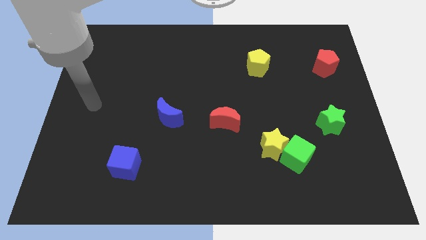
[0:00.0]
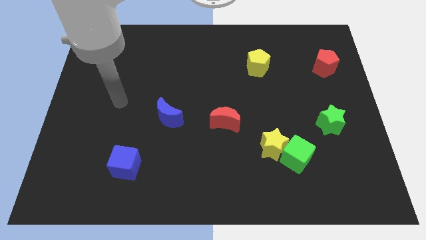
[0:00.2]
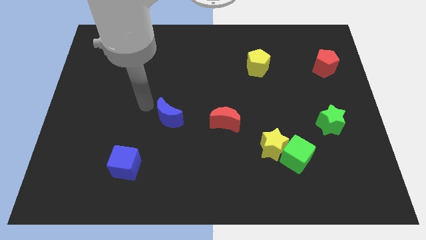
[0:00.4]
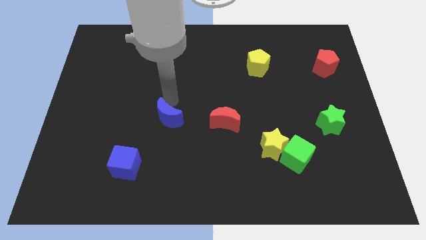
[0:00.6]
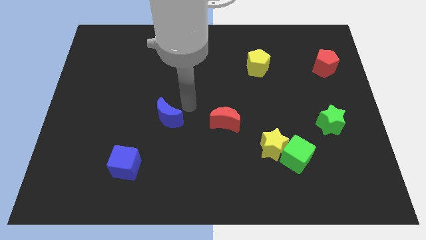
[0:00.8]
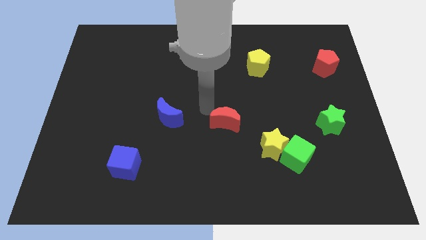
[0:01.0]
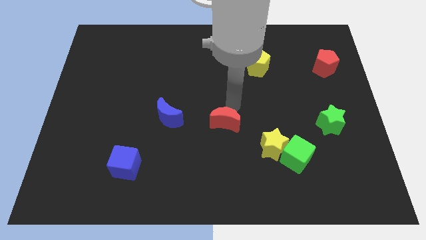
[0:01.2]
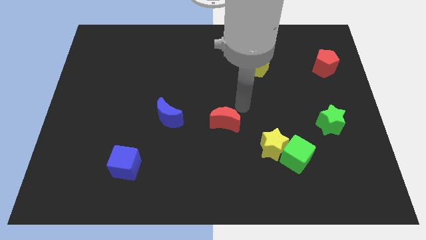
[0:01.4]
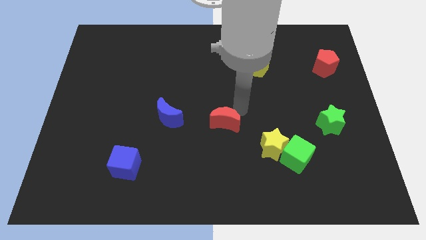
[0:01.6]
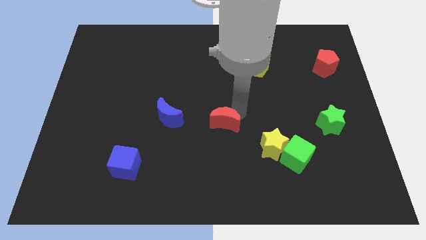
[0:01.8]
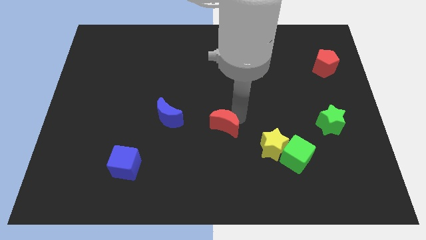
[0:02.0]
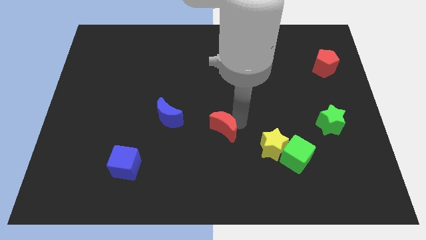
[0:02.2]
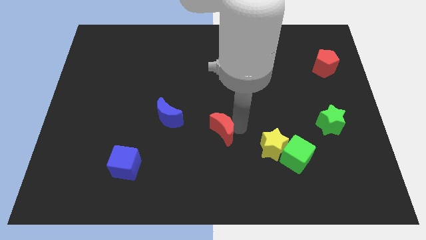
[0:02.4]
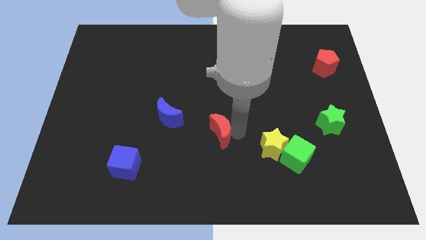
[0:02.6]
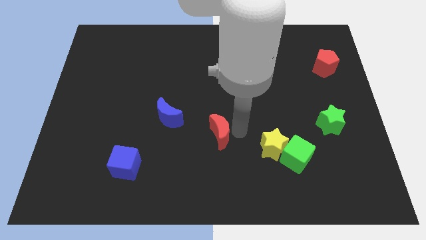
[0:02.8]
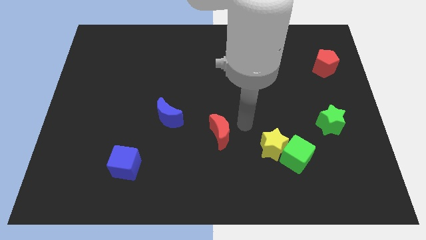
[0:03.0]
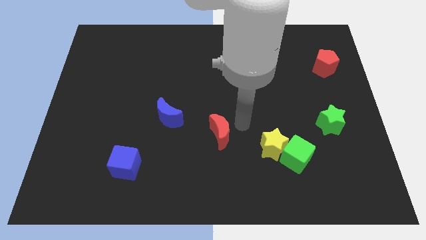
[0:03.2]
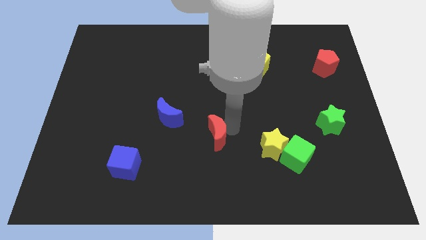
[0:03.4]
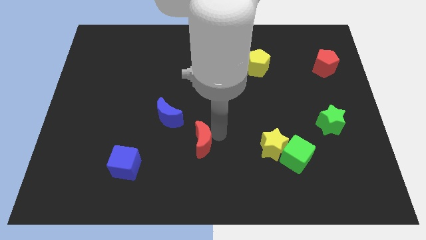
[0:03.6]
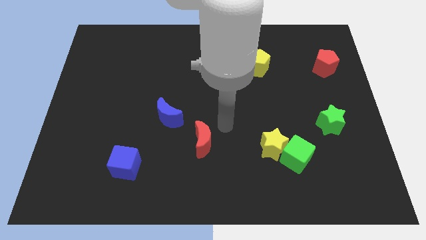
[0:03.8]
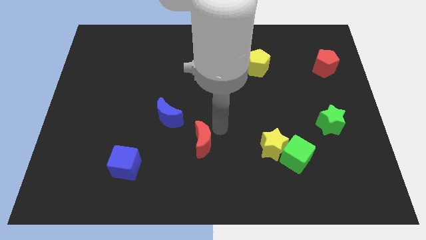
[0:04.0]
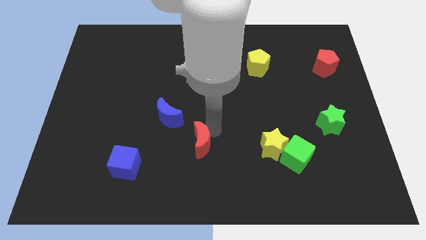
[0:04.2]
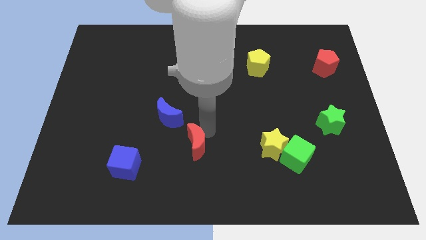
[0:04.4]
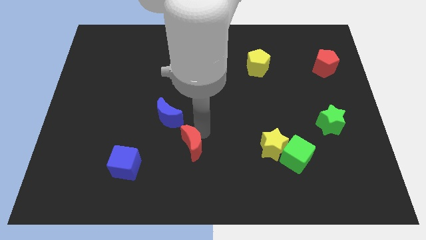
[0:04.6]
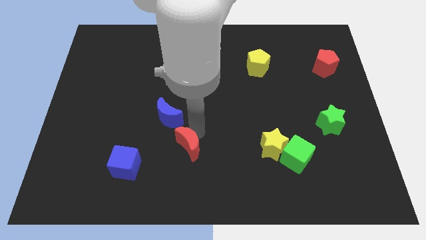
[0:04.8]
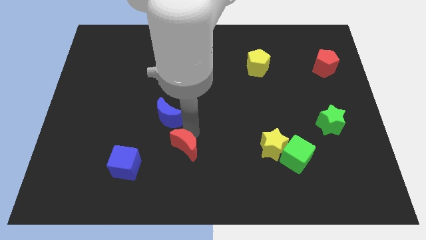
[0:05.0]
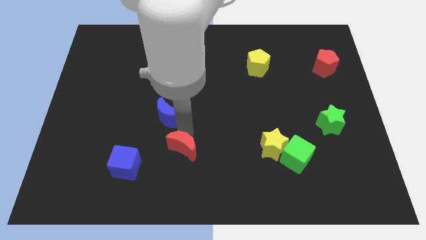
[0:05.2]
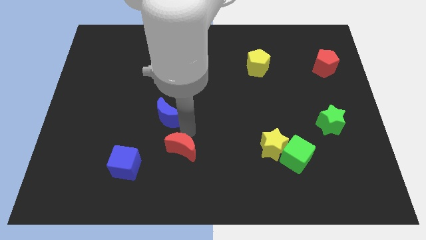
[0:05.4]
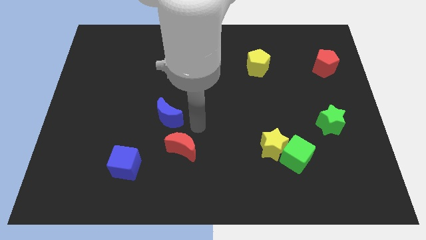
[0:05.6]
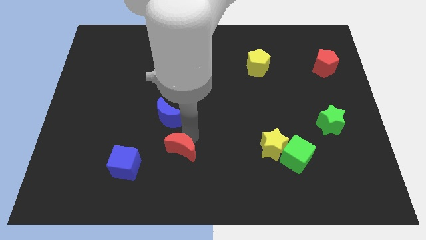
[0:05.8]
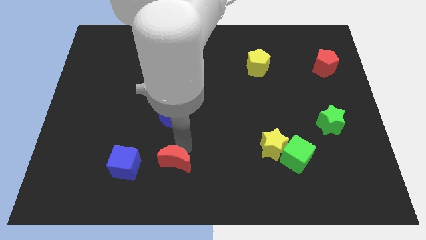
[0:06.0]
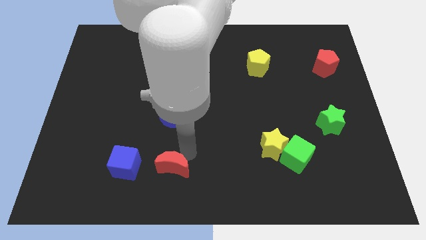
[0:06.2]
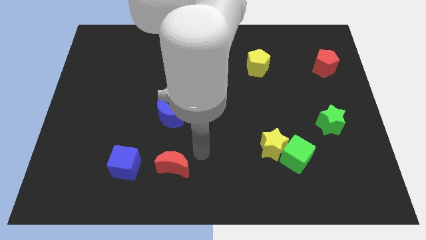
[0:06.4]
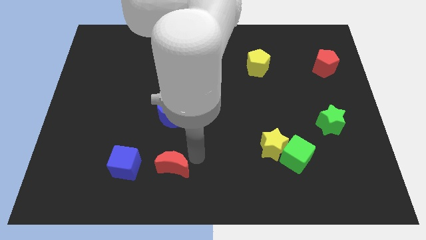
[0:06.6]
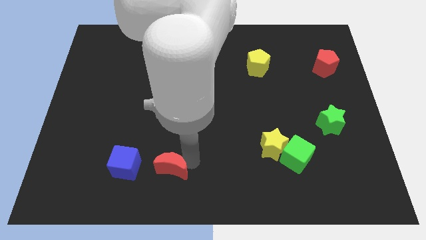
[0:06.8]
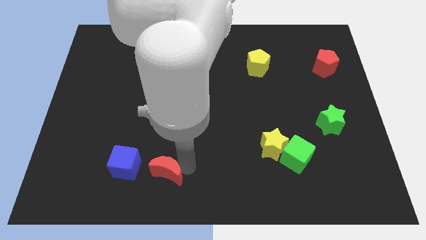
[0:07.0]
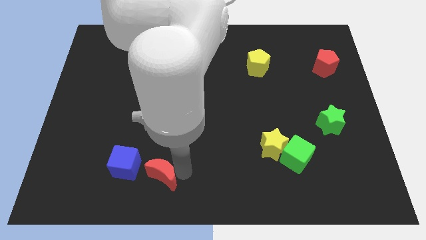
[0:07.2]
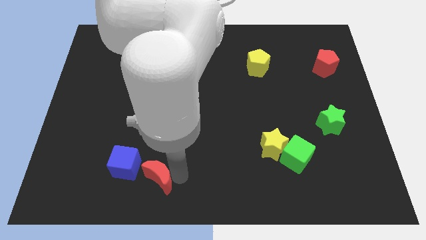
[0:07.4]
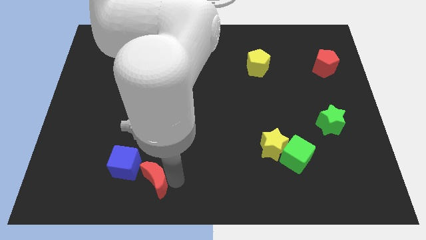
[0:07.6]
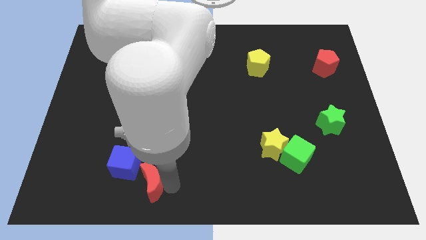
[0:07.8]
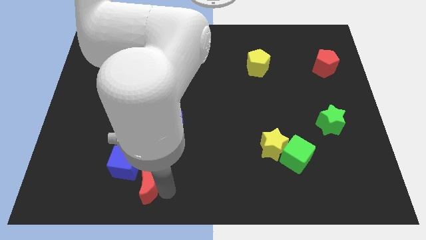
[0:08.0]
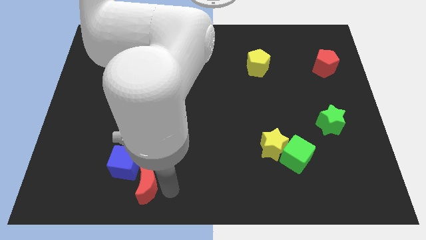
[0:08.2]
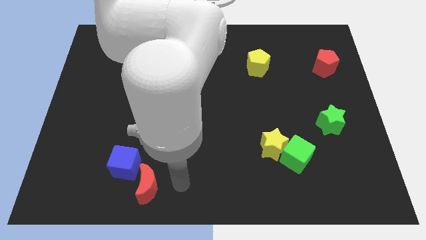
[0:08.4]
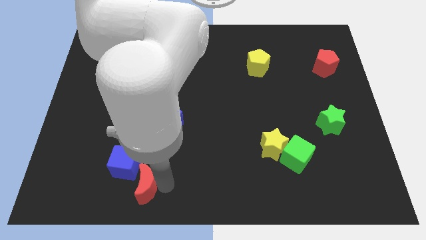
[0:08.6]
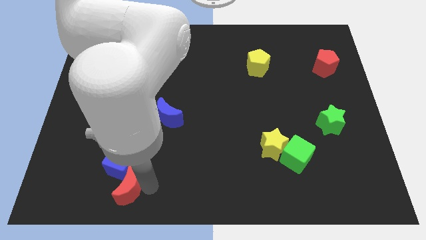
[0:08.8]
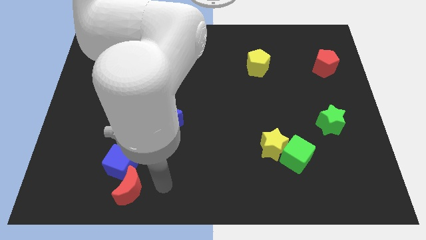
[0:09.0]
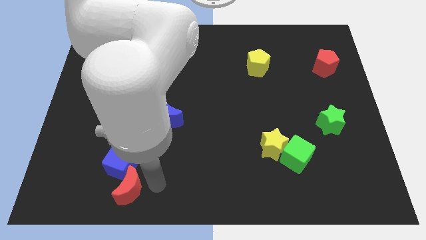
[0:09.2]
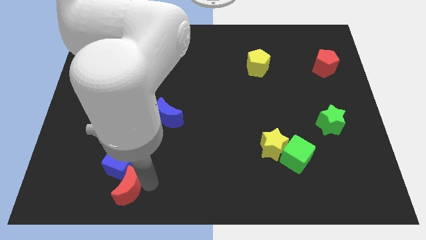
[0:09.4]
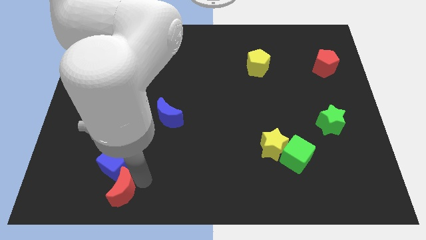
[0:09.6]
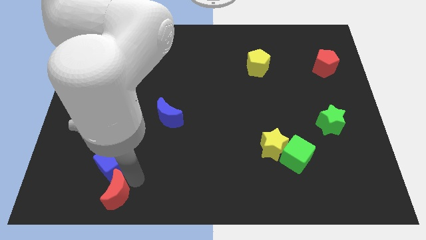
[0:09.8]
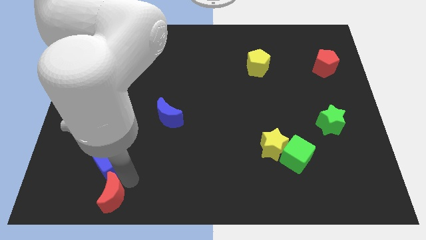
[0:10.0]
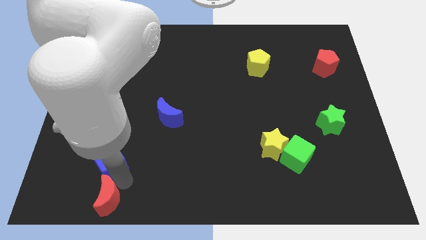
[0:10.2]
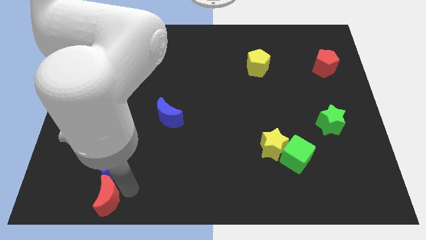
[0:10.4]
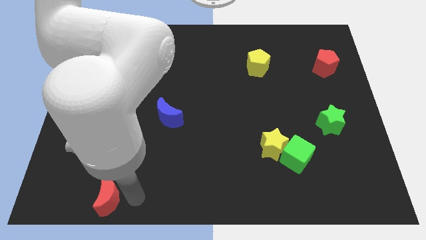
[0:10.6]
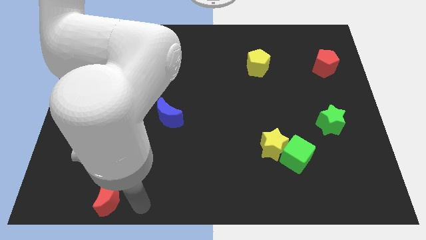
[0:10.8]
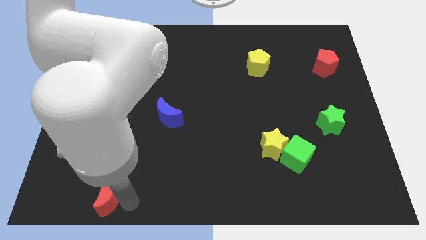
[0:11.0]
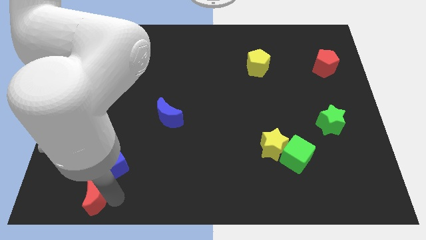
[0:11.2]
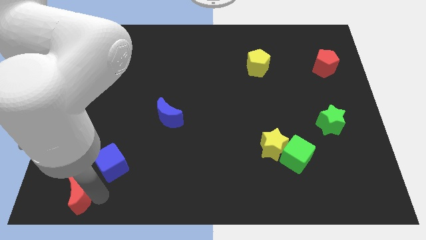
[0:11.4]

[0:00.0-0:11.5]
move the red moon to the lower left corner
